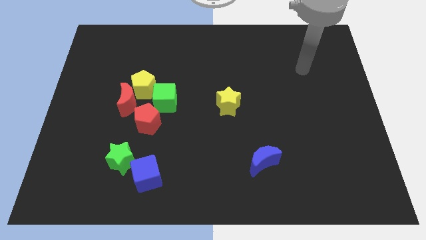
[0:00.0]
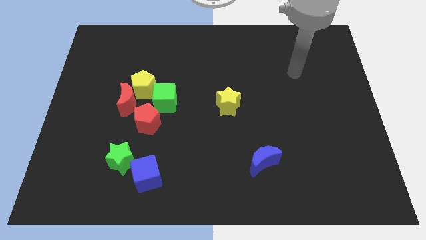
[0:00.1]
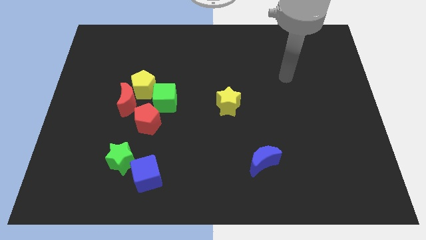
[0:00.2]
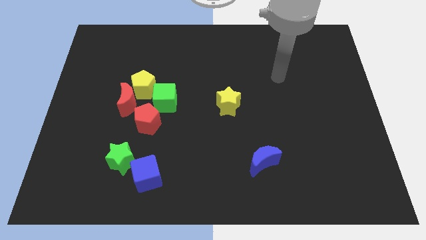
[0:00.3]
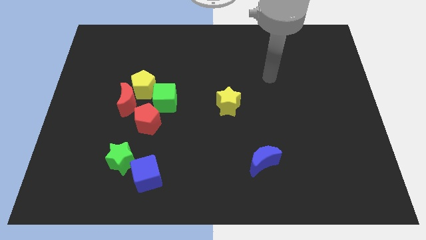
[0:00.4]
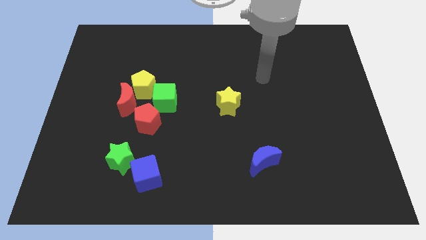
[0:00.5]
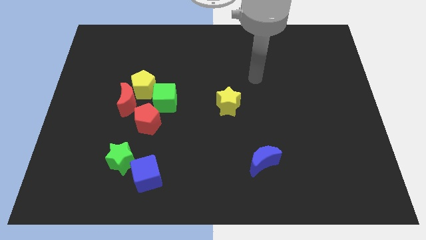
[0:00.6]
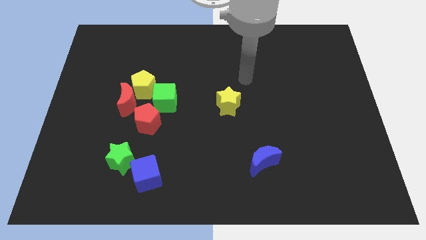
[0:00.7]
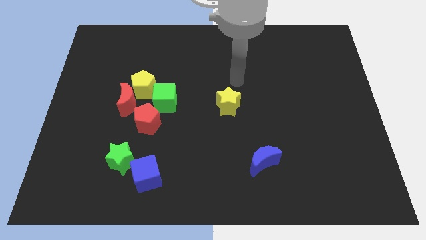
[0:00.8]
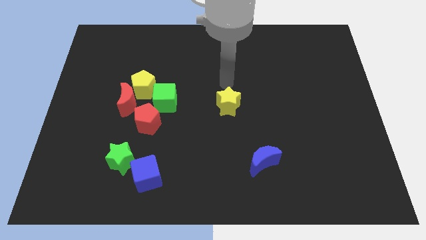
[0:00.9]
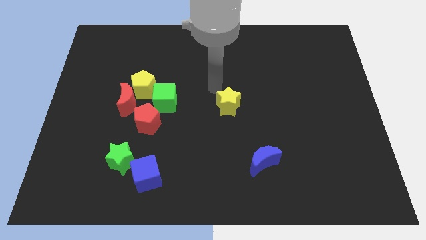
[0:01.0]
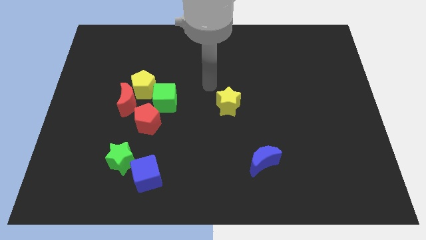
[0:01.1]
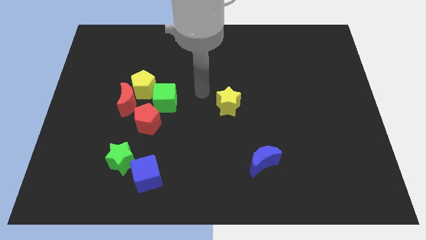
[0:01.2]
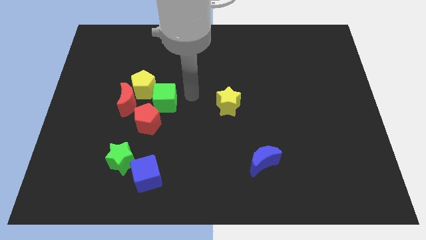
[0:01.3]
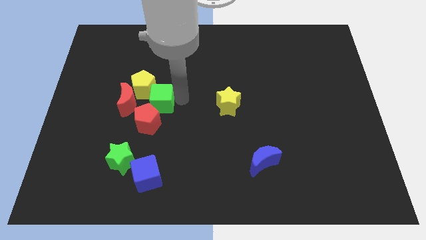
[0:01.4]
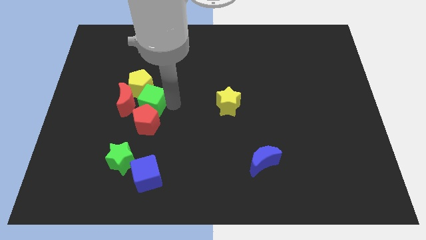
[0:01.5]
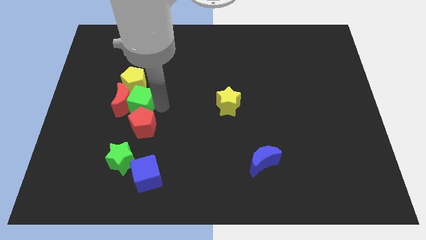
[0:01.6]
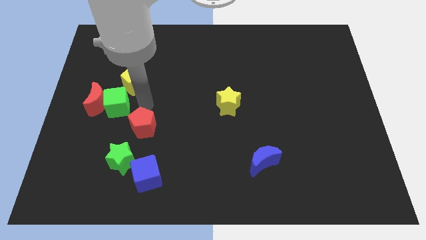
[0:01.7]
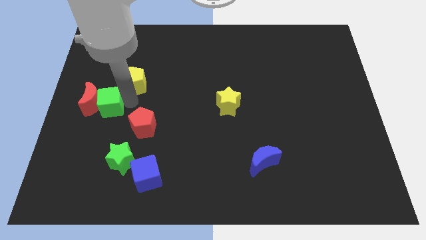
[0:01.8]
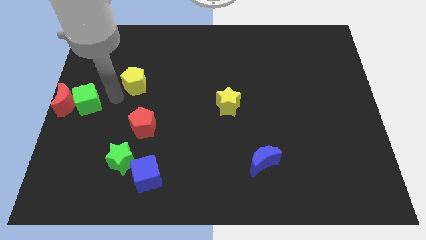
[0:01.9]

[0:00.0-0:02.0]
move the yellow pentagon away from the red moon and green cube

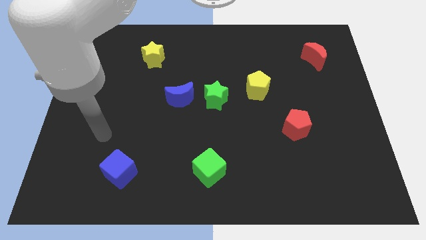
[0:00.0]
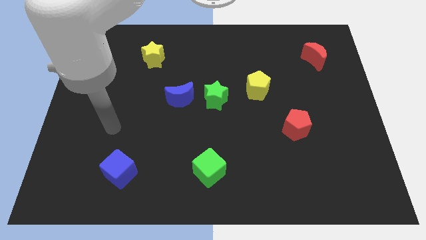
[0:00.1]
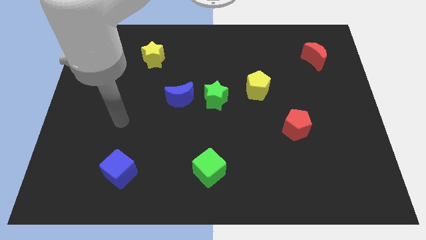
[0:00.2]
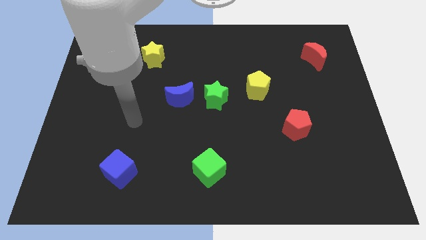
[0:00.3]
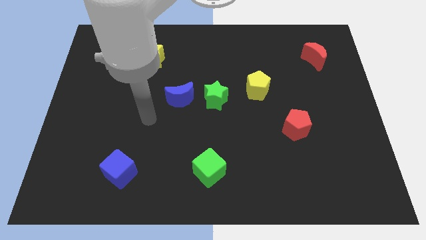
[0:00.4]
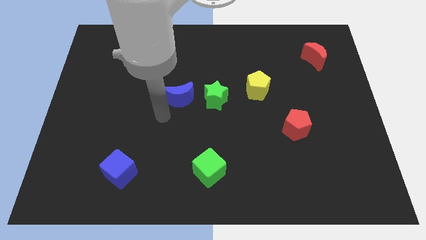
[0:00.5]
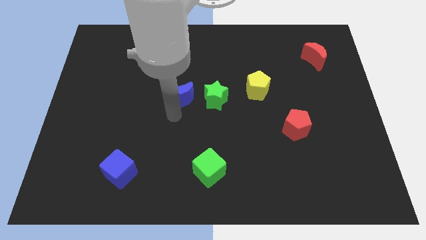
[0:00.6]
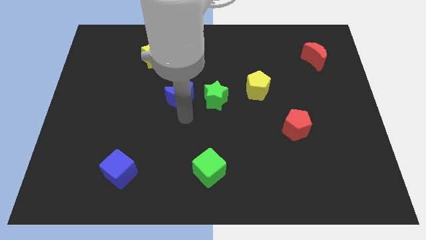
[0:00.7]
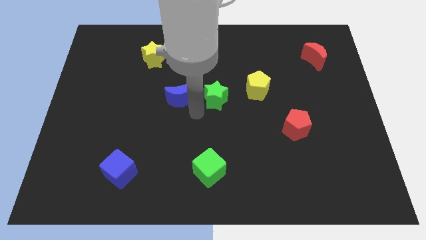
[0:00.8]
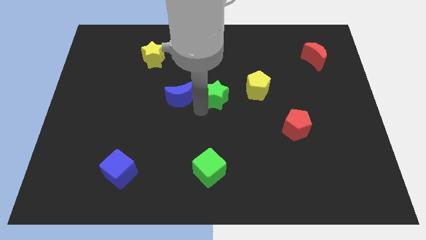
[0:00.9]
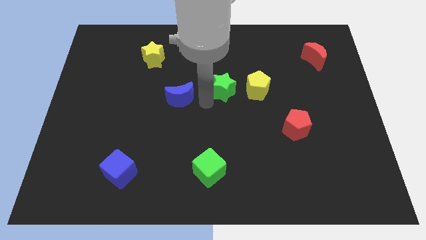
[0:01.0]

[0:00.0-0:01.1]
separate the blue moon from the green star

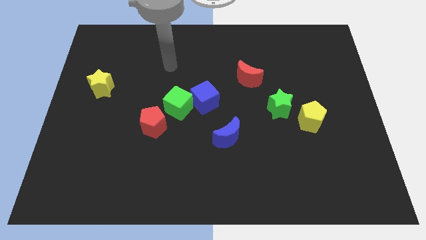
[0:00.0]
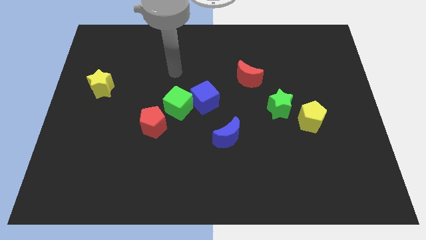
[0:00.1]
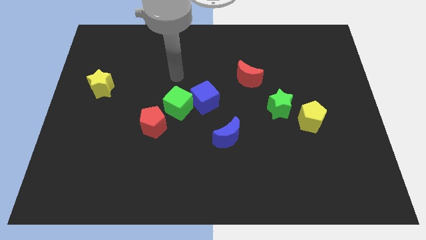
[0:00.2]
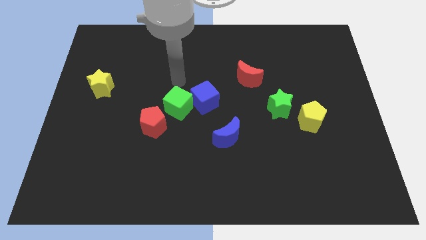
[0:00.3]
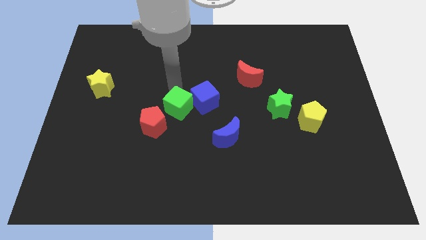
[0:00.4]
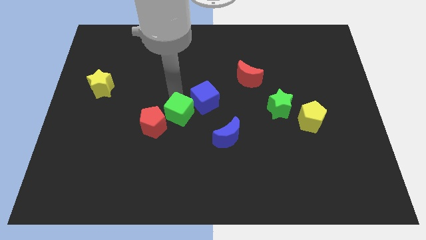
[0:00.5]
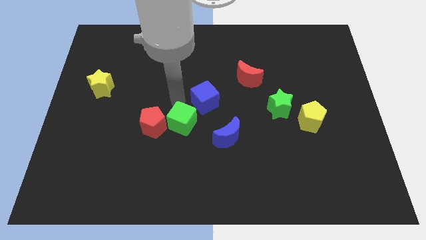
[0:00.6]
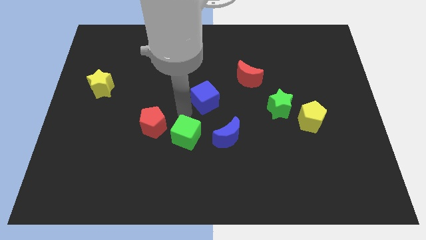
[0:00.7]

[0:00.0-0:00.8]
separate the blue cube from the green cube

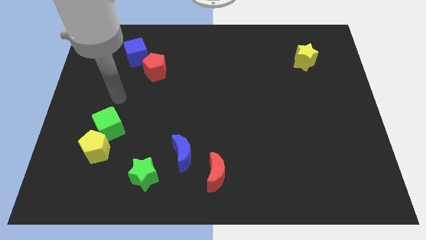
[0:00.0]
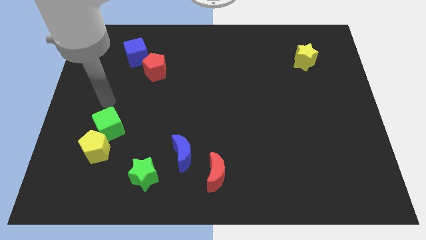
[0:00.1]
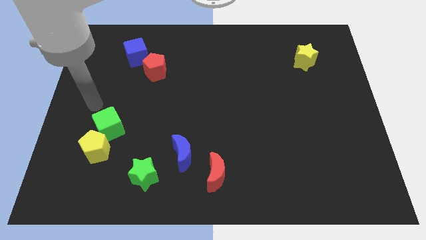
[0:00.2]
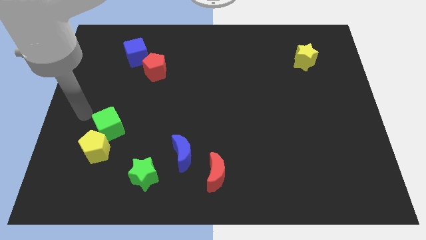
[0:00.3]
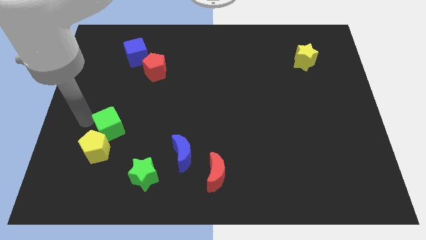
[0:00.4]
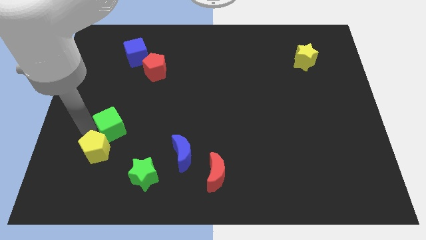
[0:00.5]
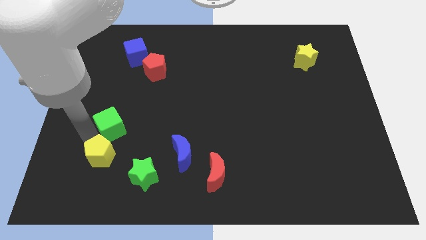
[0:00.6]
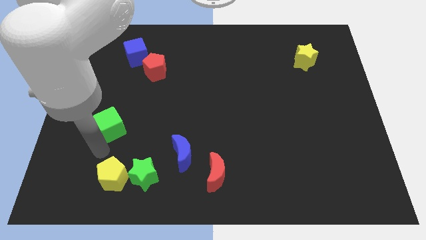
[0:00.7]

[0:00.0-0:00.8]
move the green cube away from the yellow pentagon

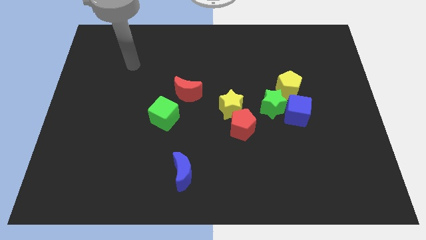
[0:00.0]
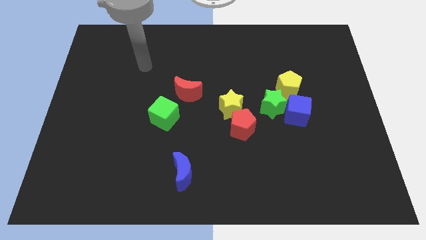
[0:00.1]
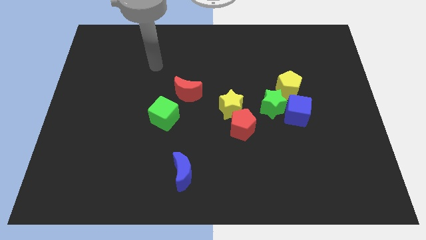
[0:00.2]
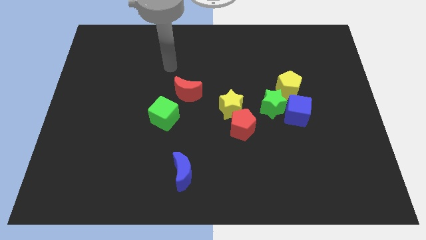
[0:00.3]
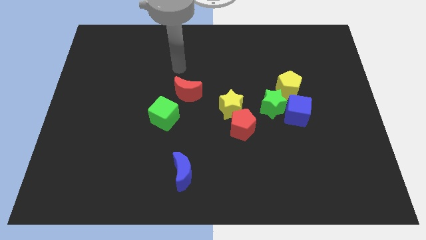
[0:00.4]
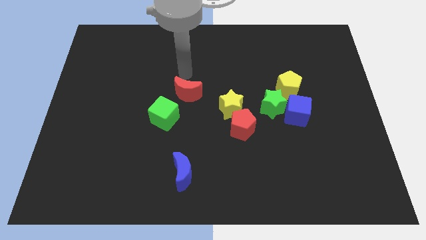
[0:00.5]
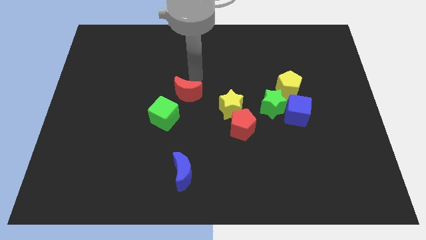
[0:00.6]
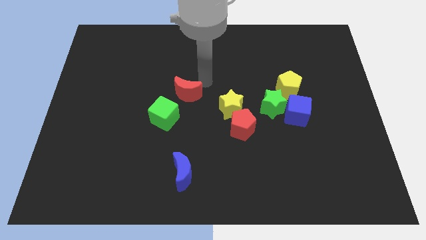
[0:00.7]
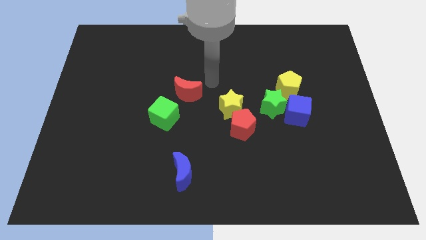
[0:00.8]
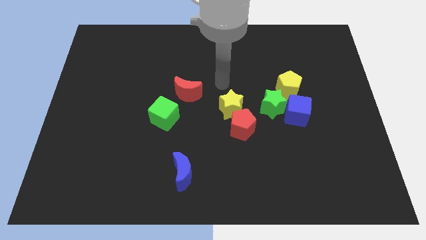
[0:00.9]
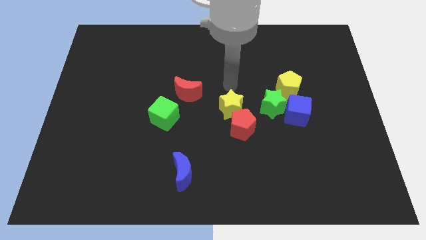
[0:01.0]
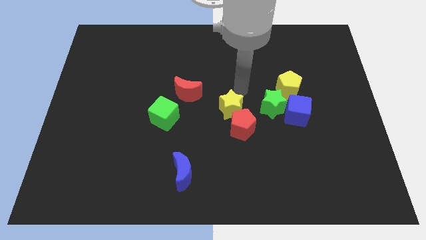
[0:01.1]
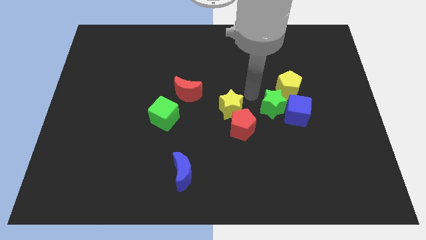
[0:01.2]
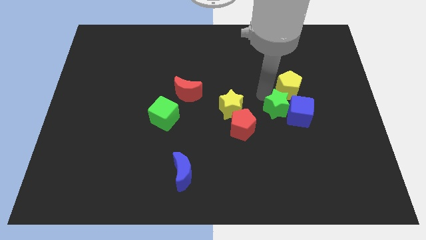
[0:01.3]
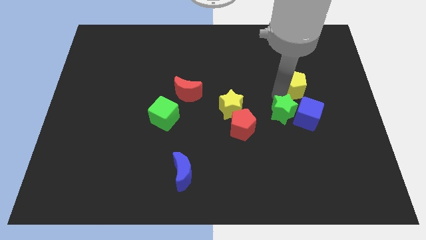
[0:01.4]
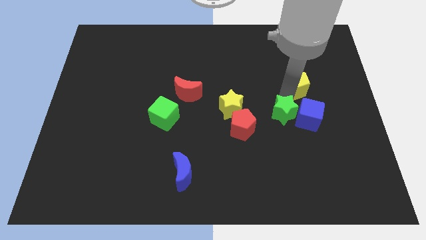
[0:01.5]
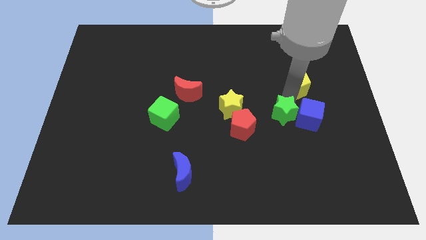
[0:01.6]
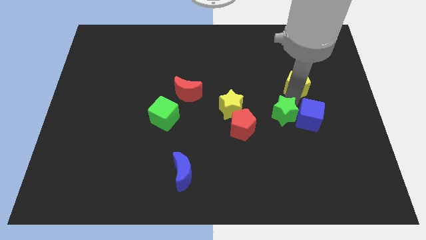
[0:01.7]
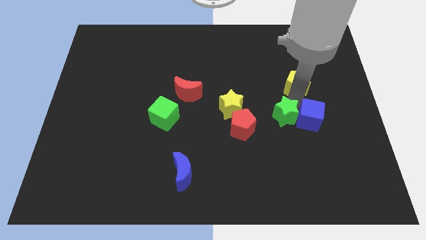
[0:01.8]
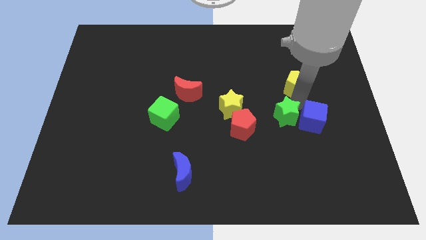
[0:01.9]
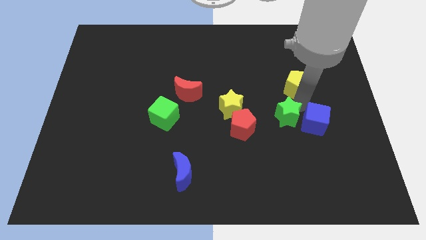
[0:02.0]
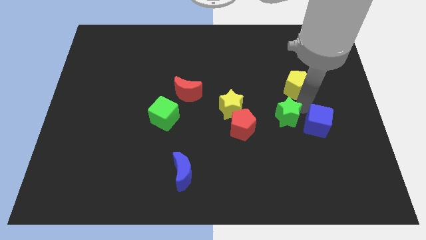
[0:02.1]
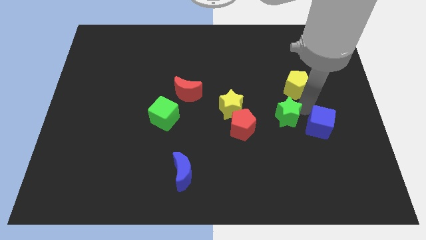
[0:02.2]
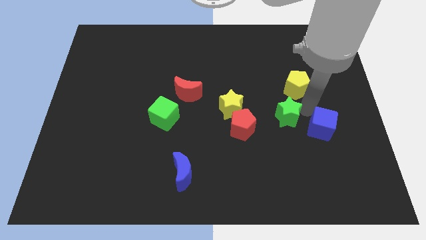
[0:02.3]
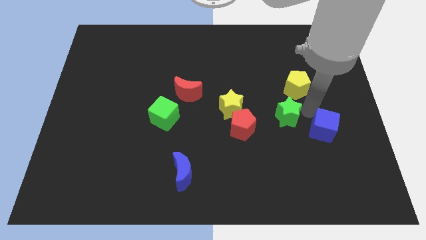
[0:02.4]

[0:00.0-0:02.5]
move the blue cube away from the green star and yellow pentagon

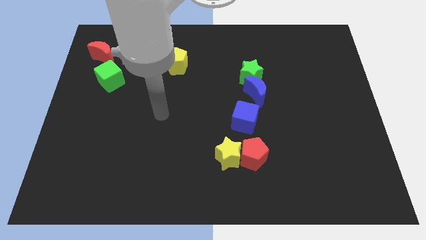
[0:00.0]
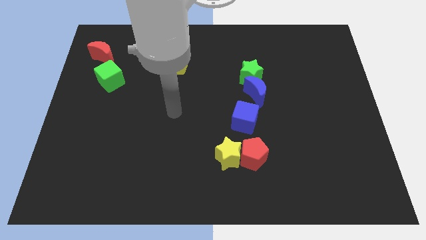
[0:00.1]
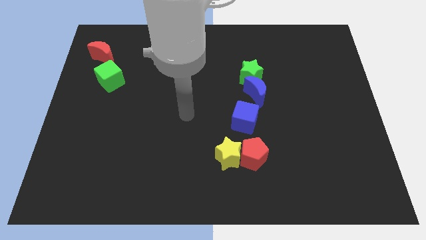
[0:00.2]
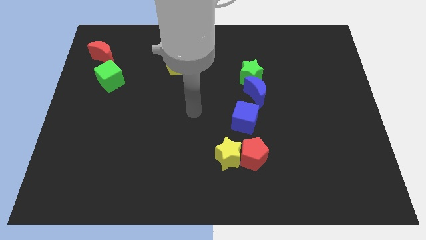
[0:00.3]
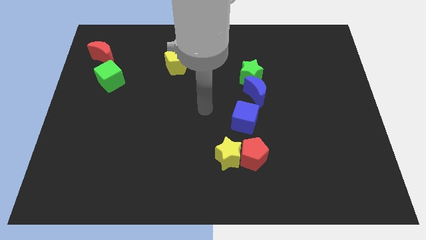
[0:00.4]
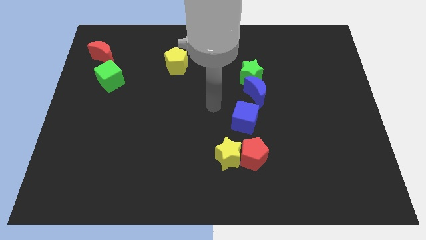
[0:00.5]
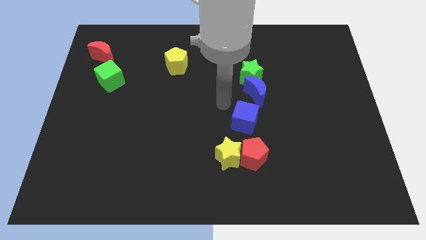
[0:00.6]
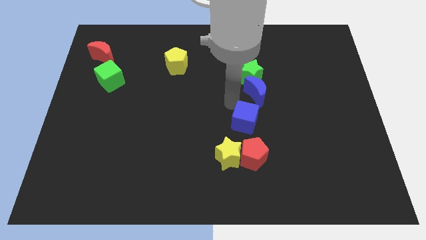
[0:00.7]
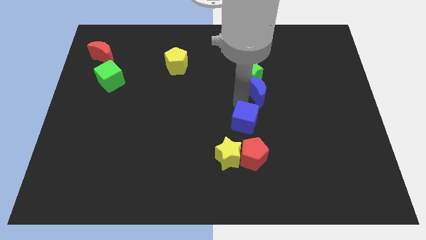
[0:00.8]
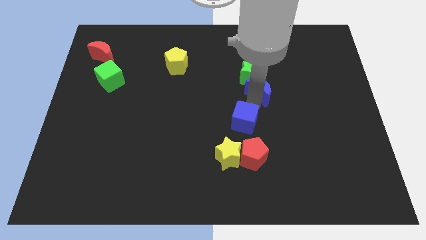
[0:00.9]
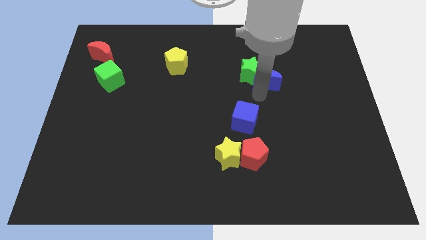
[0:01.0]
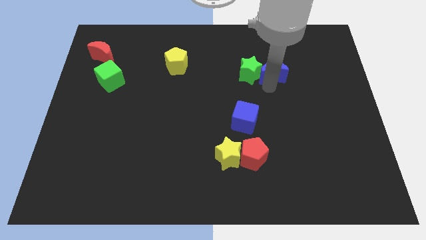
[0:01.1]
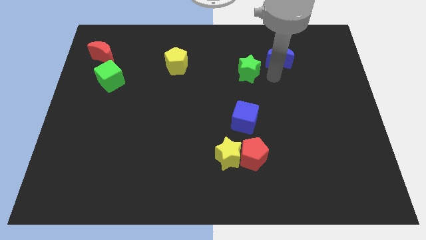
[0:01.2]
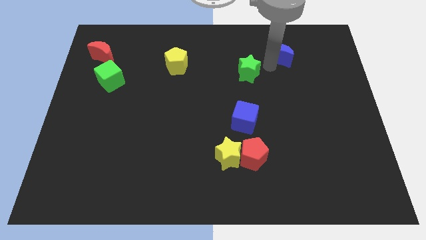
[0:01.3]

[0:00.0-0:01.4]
separate the green star from the blue moon

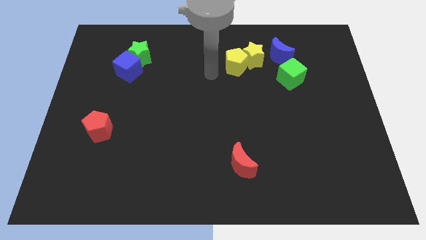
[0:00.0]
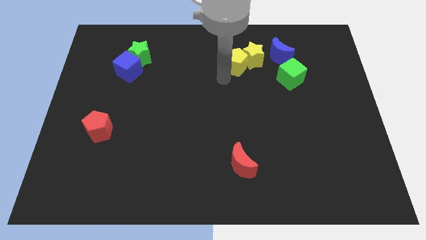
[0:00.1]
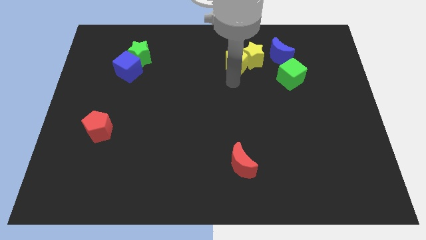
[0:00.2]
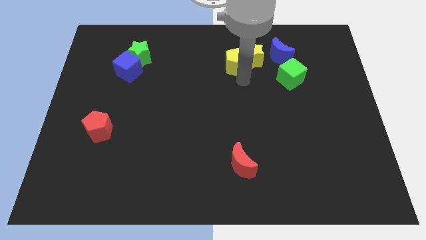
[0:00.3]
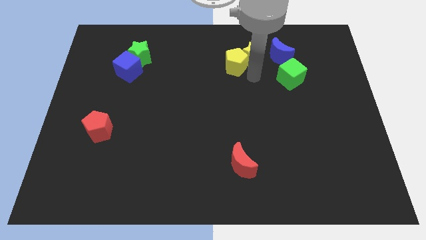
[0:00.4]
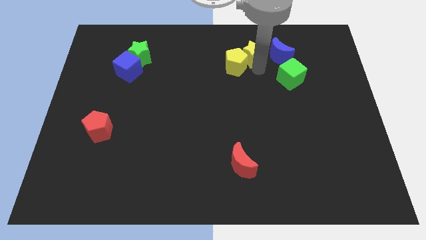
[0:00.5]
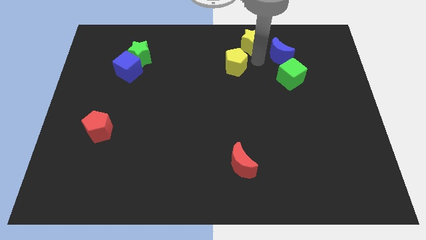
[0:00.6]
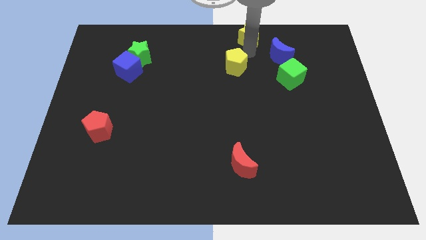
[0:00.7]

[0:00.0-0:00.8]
separate the yellow pentagon from the yellow star
